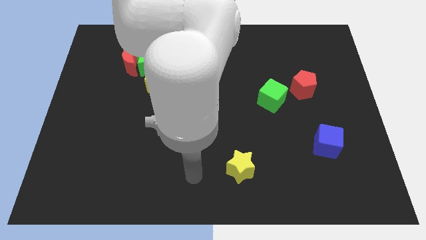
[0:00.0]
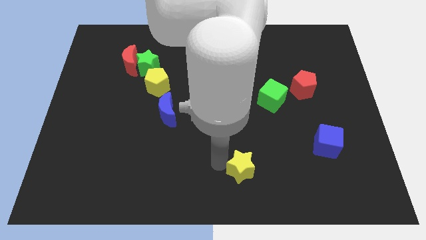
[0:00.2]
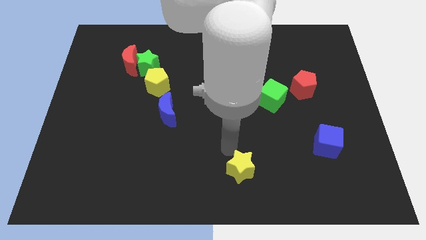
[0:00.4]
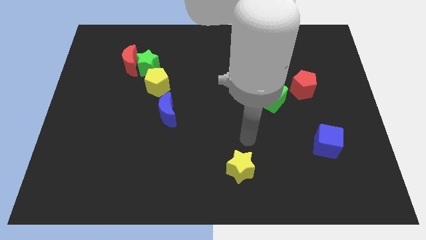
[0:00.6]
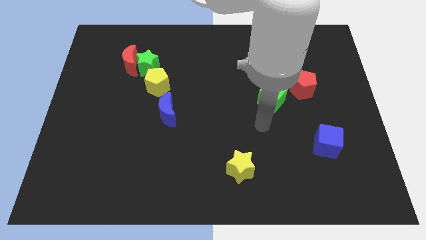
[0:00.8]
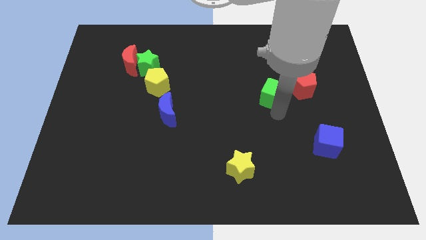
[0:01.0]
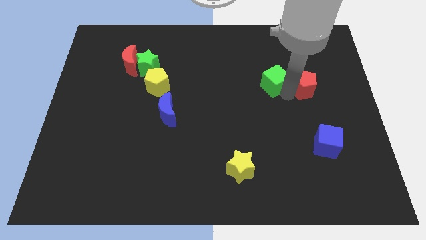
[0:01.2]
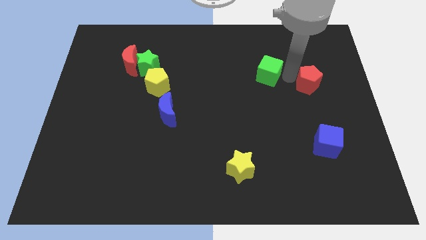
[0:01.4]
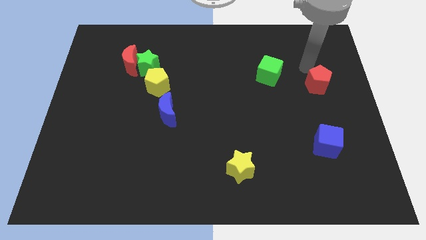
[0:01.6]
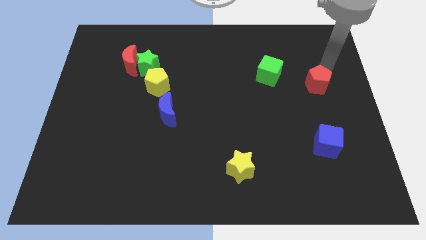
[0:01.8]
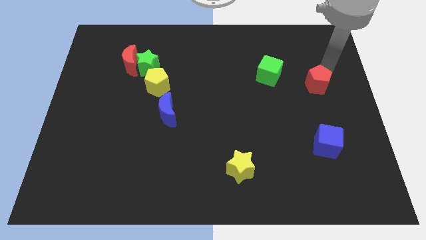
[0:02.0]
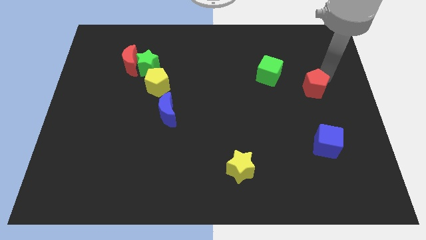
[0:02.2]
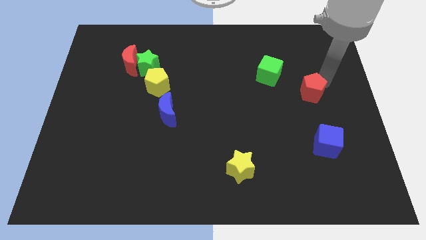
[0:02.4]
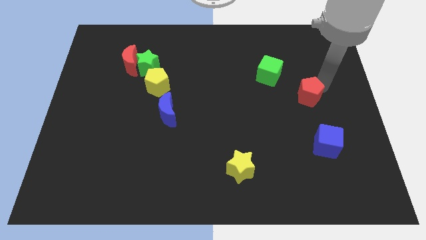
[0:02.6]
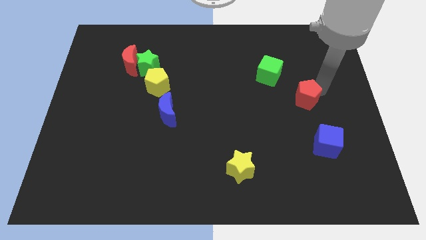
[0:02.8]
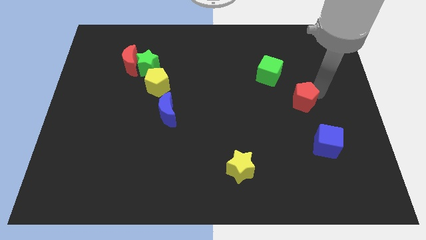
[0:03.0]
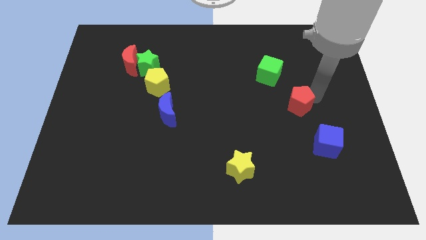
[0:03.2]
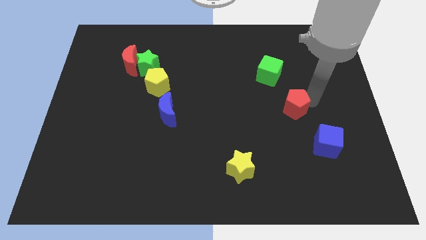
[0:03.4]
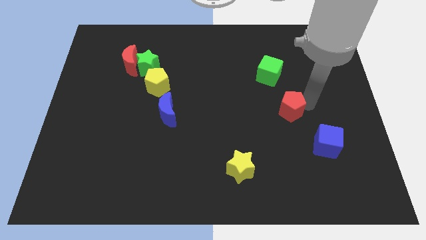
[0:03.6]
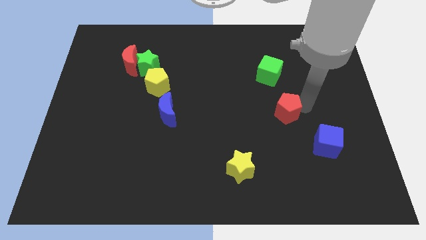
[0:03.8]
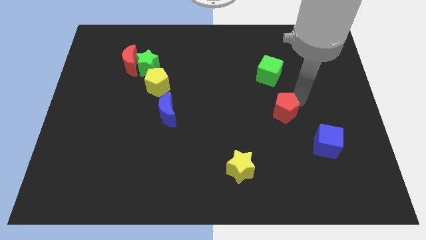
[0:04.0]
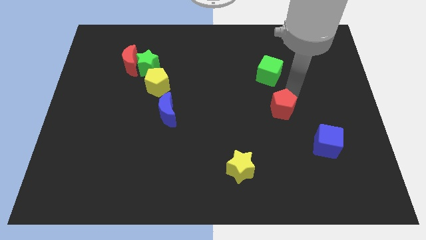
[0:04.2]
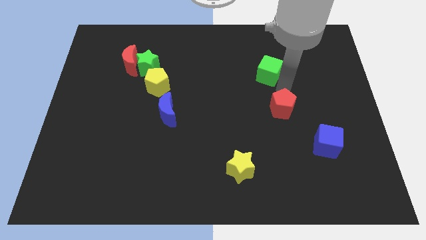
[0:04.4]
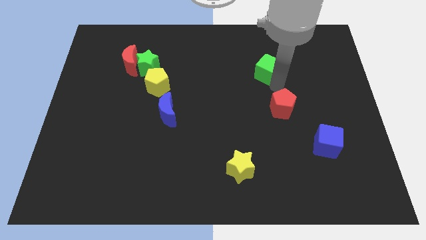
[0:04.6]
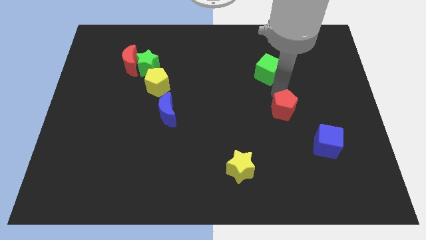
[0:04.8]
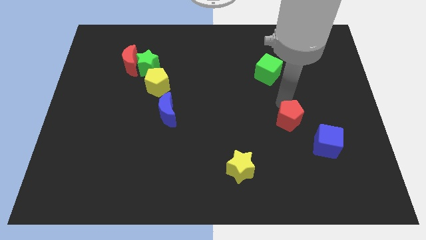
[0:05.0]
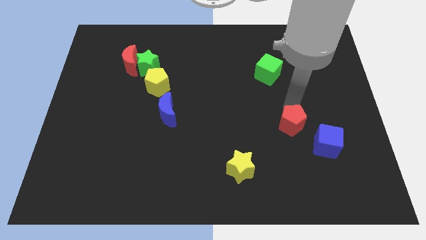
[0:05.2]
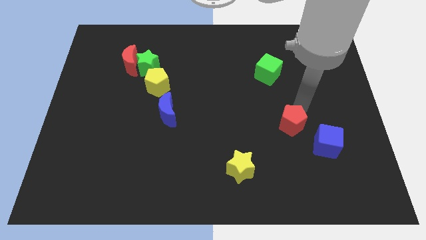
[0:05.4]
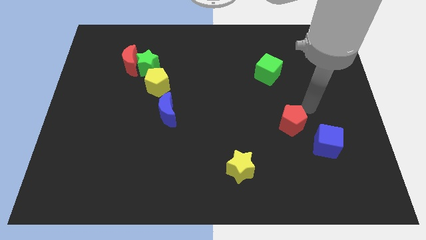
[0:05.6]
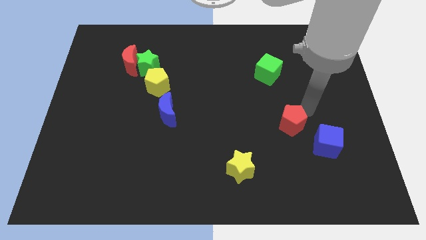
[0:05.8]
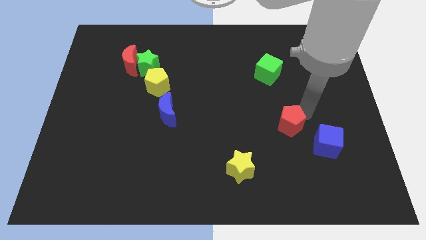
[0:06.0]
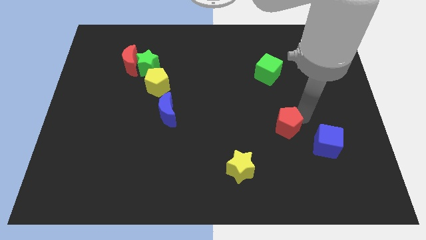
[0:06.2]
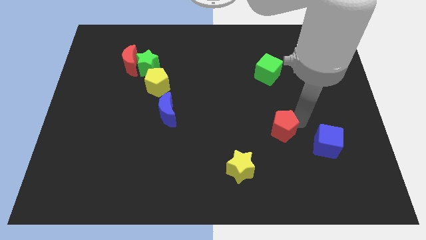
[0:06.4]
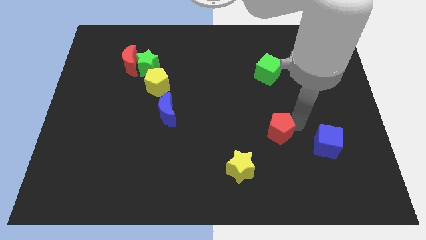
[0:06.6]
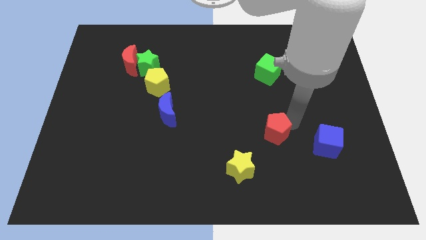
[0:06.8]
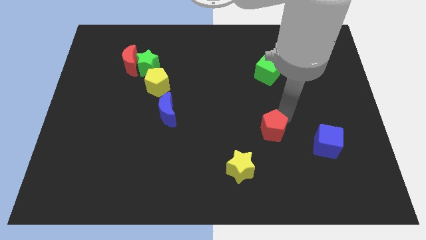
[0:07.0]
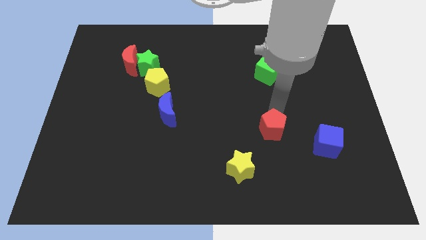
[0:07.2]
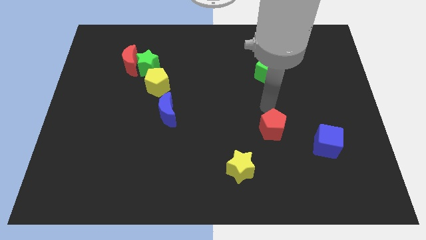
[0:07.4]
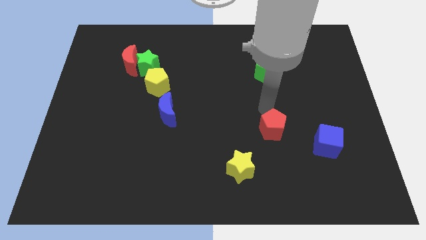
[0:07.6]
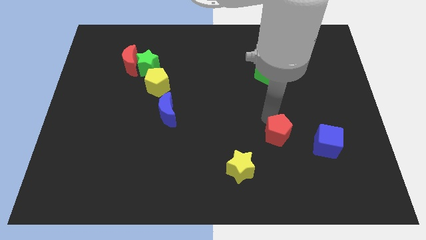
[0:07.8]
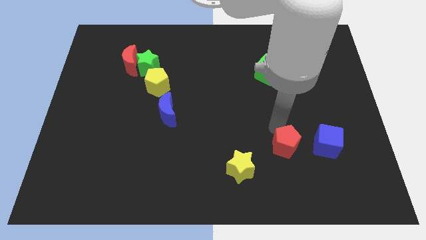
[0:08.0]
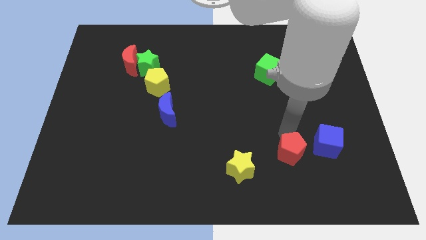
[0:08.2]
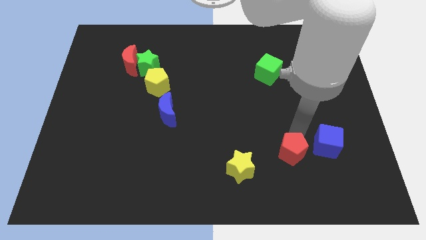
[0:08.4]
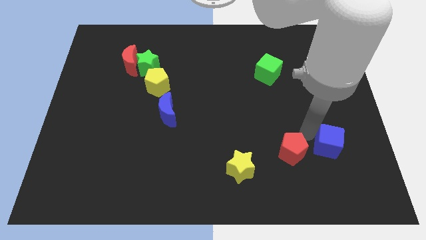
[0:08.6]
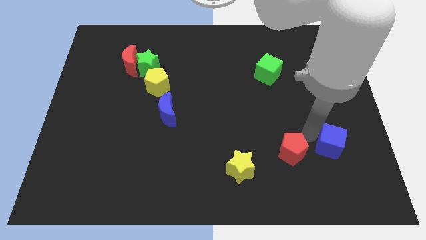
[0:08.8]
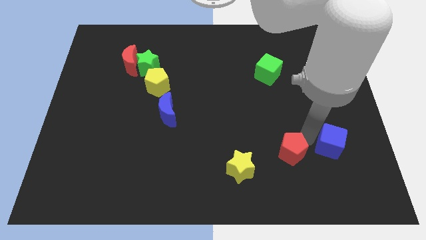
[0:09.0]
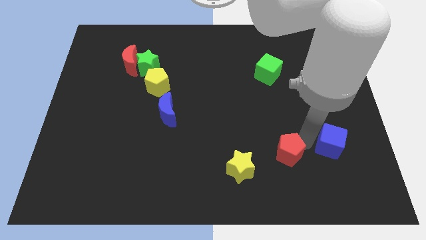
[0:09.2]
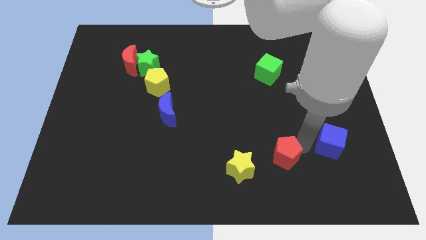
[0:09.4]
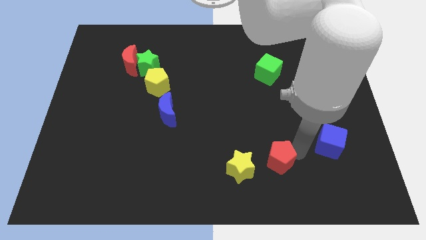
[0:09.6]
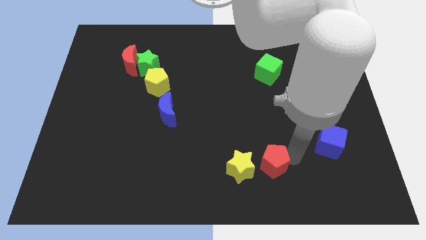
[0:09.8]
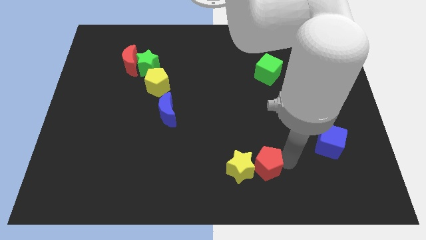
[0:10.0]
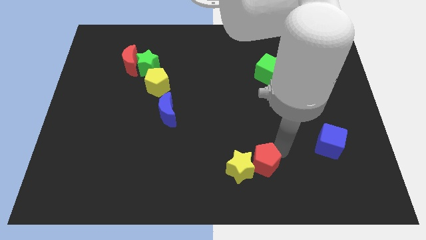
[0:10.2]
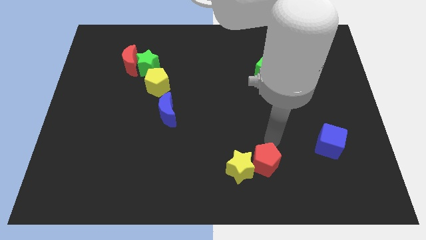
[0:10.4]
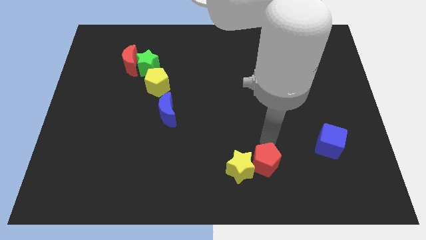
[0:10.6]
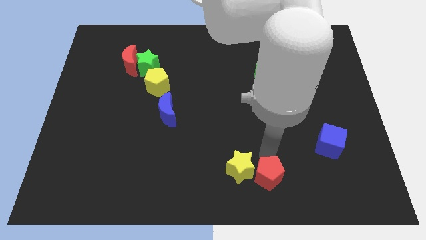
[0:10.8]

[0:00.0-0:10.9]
move the red pentagon to the bottom

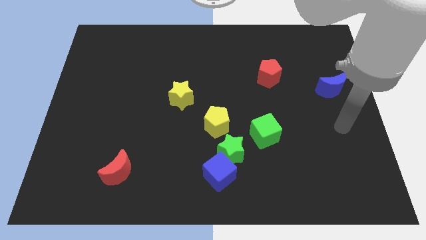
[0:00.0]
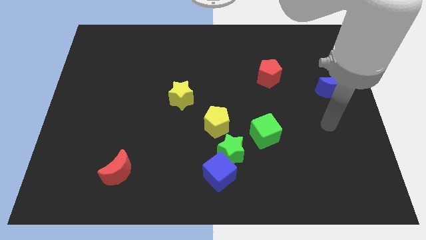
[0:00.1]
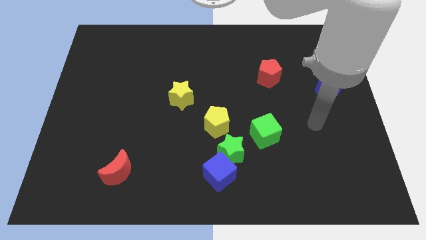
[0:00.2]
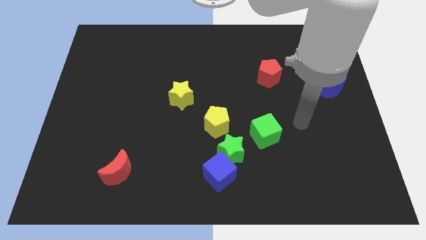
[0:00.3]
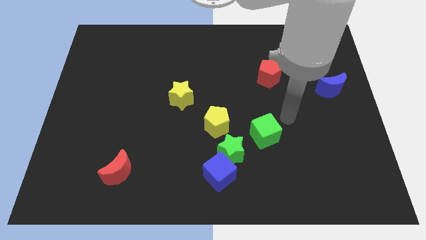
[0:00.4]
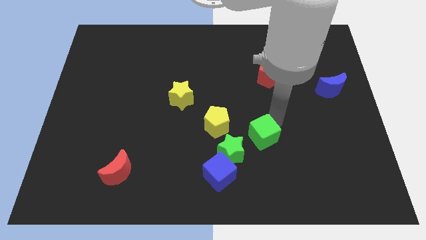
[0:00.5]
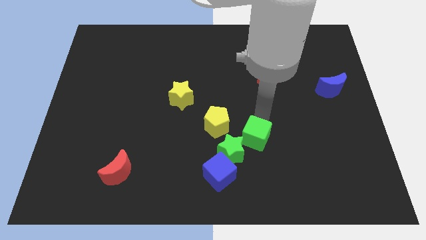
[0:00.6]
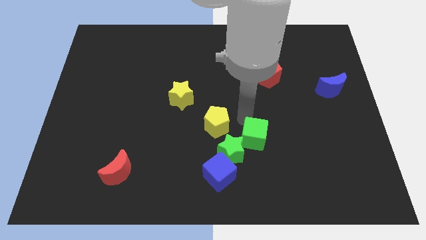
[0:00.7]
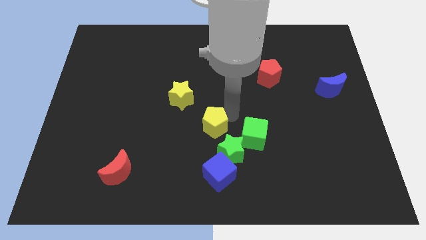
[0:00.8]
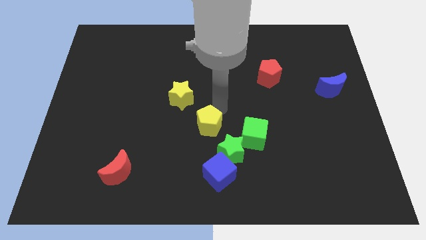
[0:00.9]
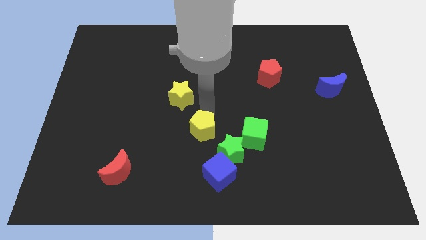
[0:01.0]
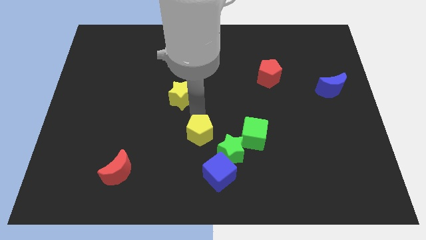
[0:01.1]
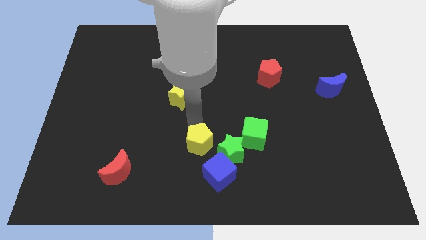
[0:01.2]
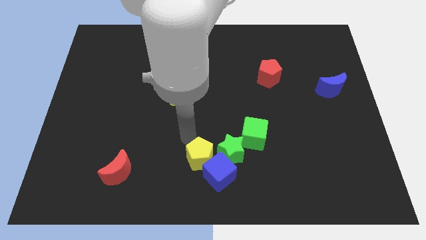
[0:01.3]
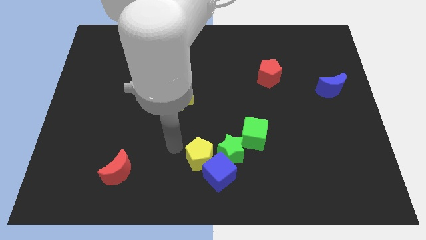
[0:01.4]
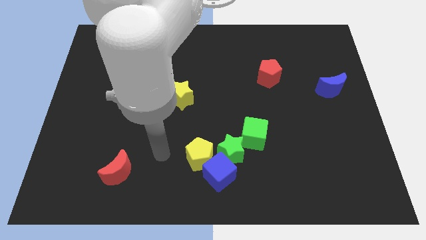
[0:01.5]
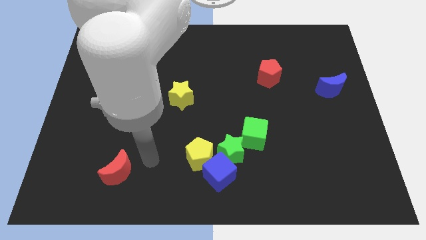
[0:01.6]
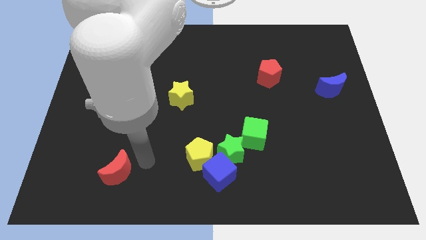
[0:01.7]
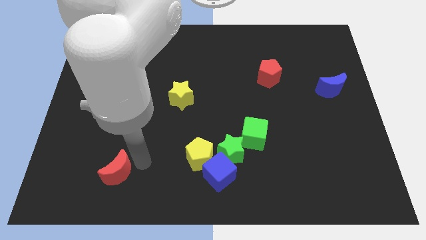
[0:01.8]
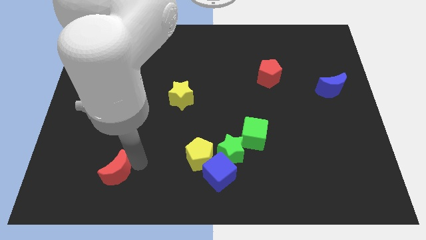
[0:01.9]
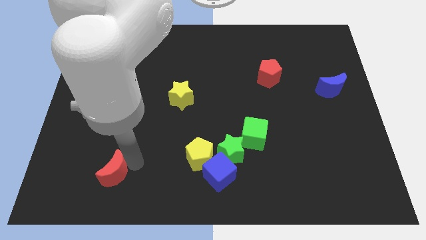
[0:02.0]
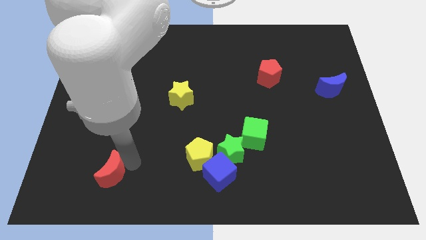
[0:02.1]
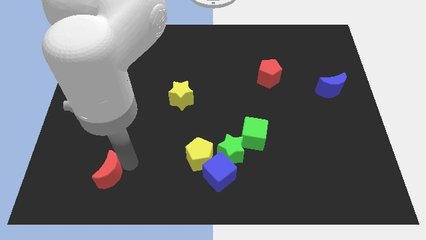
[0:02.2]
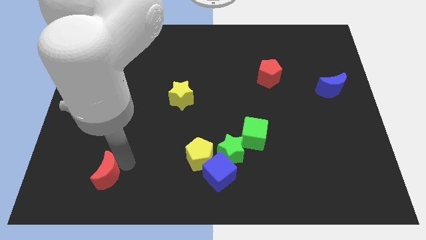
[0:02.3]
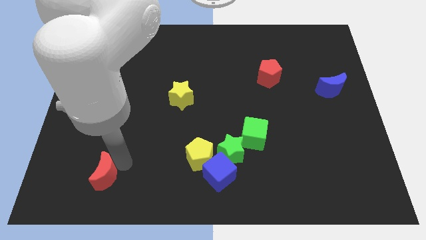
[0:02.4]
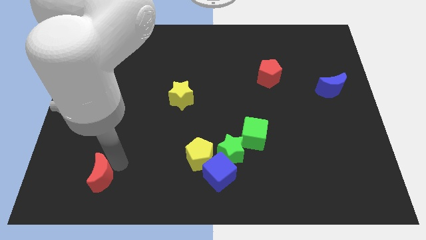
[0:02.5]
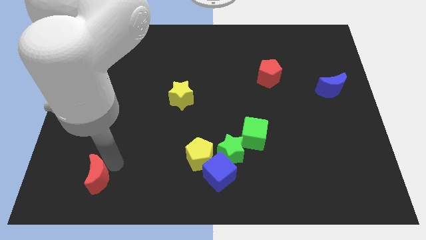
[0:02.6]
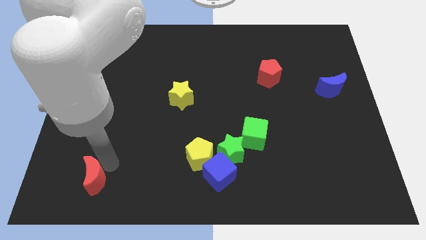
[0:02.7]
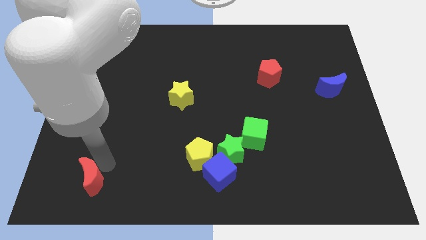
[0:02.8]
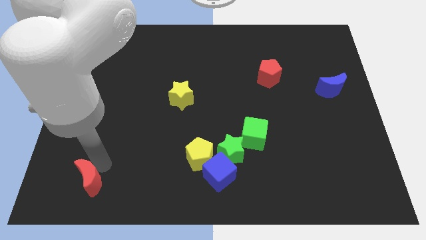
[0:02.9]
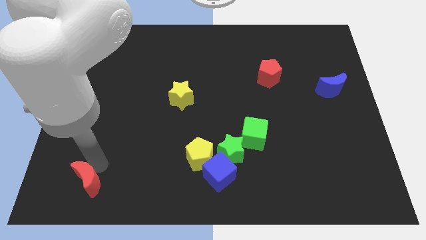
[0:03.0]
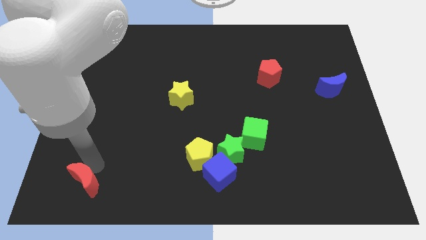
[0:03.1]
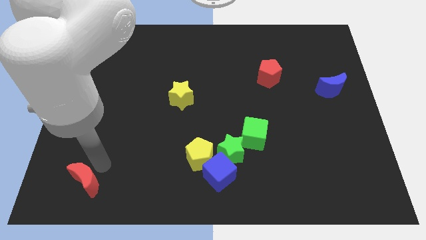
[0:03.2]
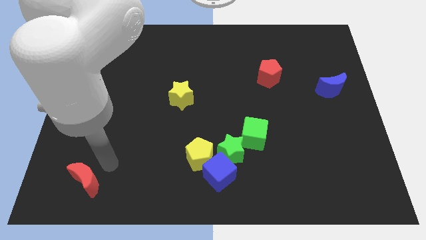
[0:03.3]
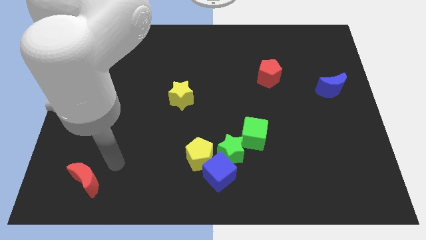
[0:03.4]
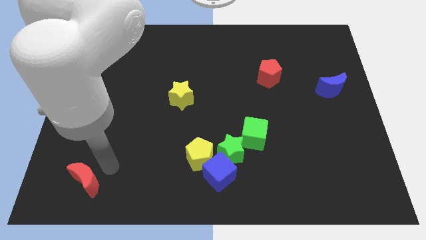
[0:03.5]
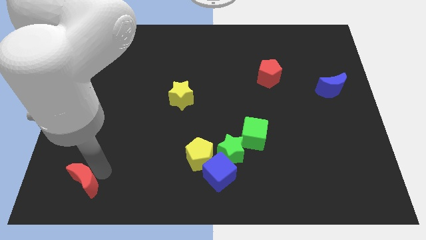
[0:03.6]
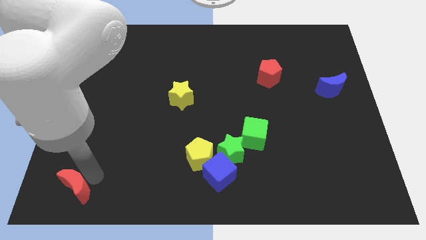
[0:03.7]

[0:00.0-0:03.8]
move the red moon to the bottom left of the board
